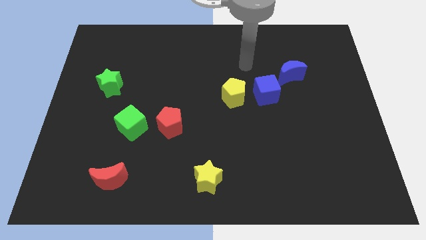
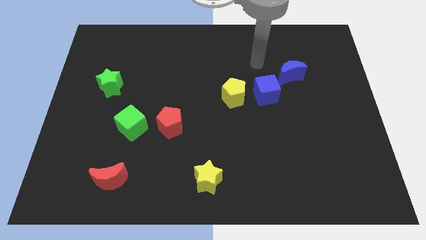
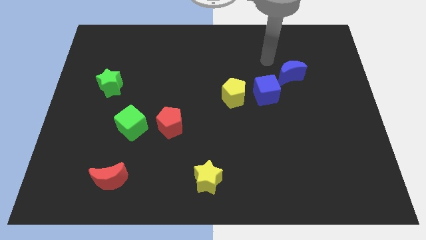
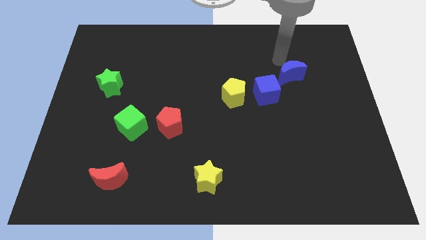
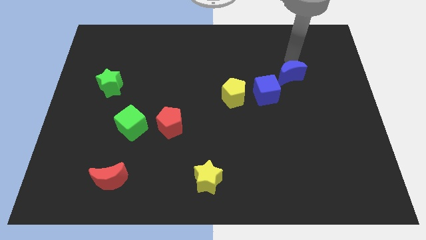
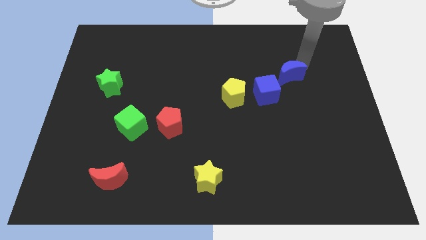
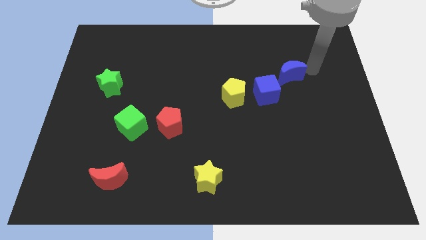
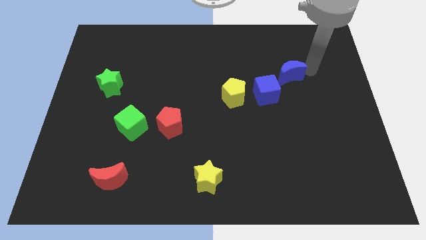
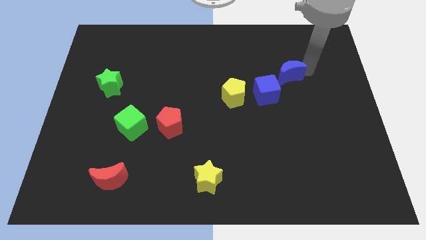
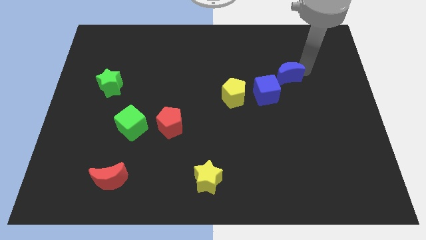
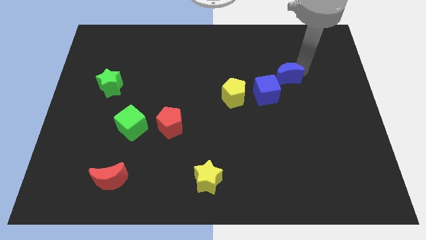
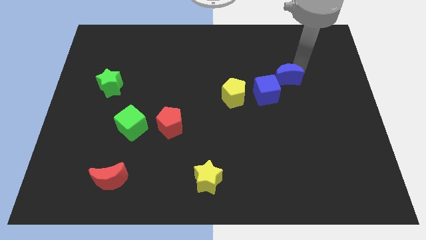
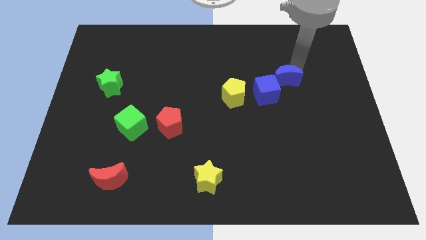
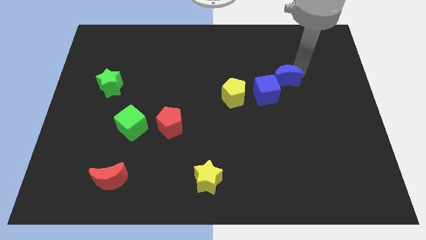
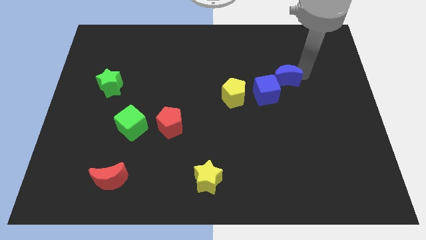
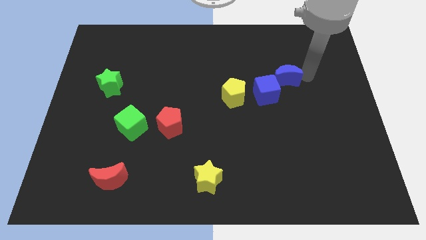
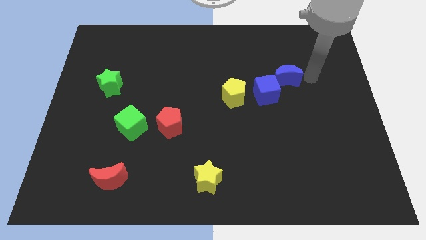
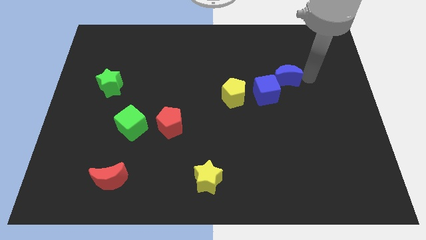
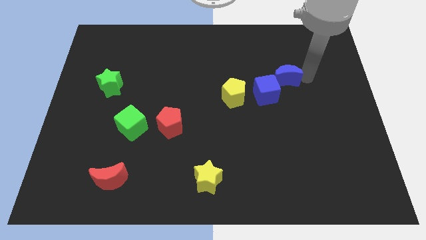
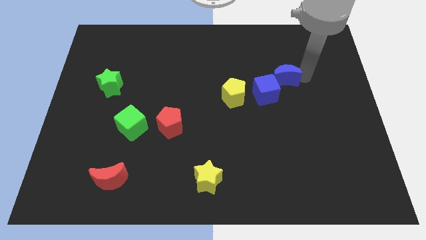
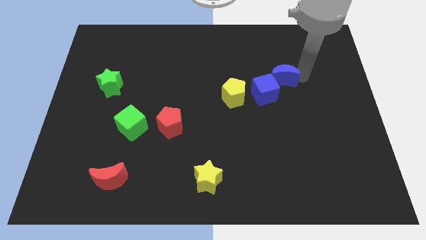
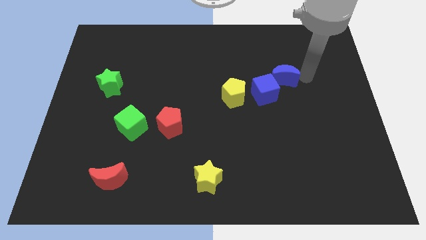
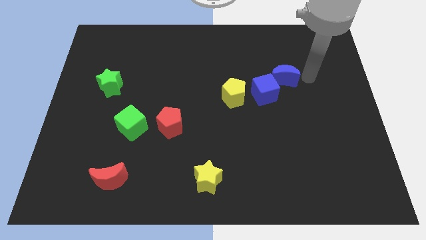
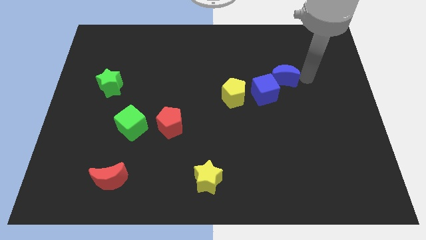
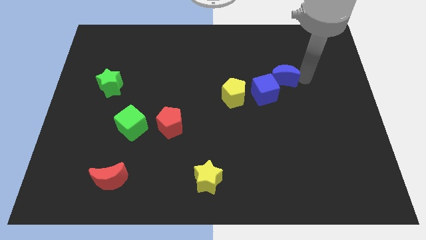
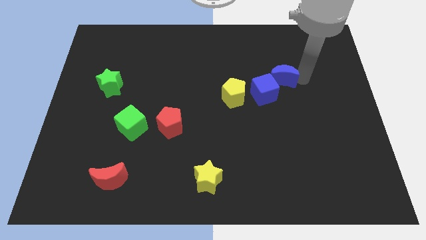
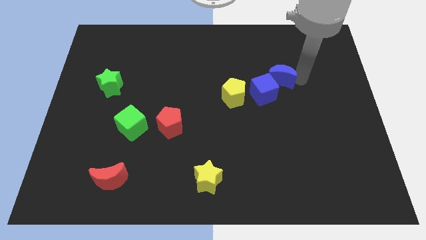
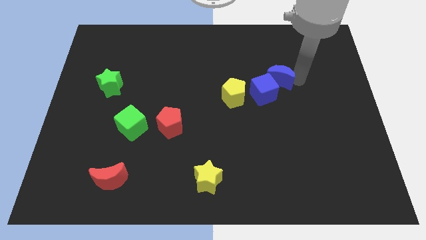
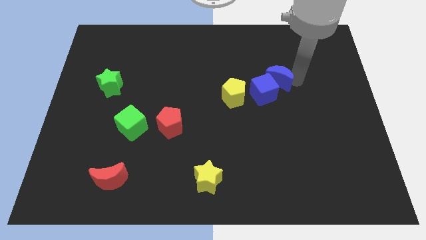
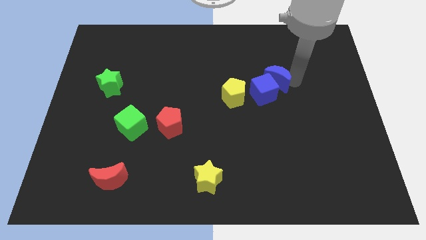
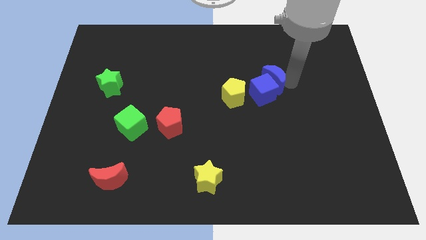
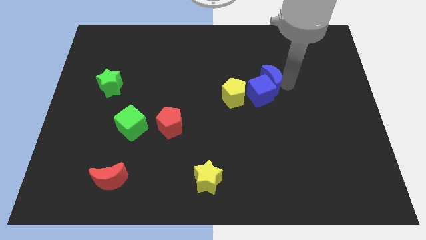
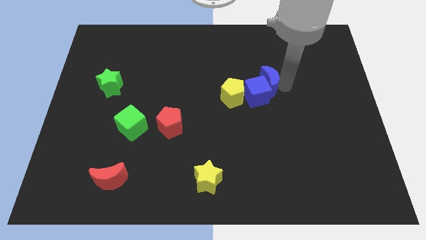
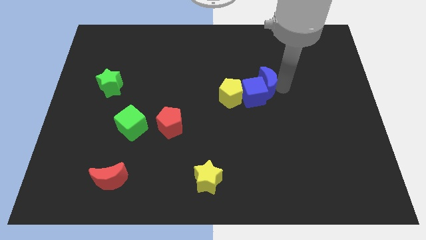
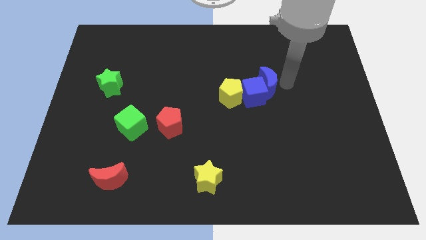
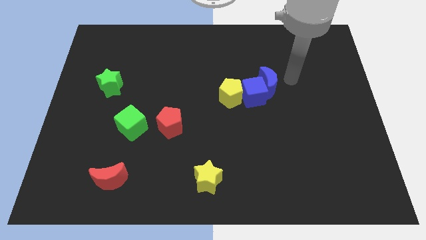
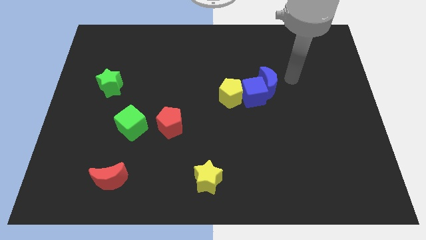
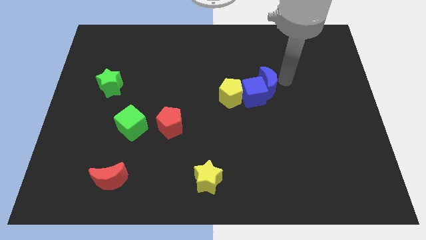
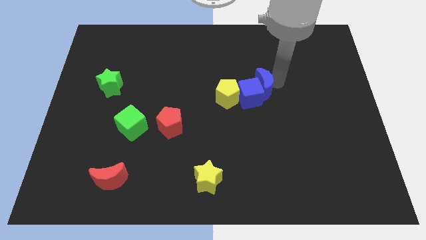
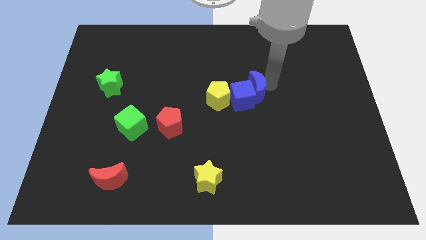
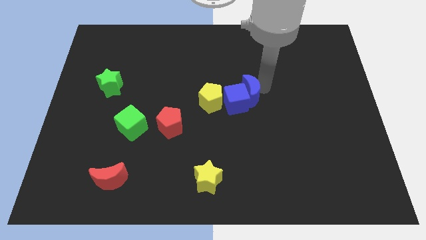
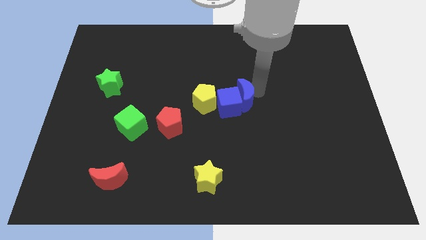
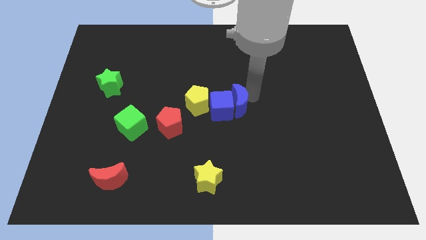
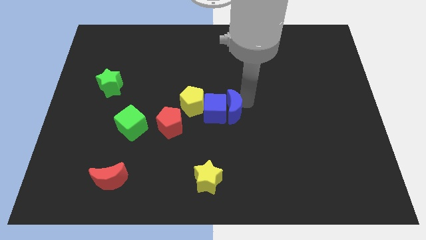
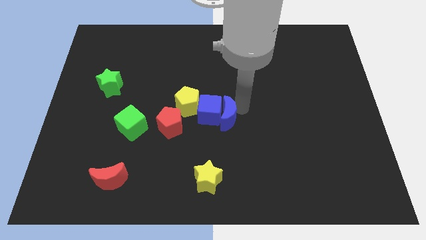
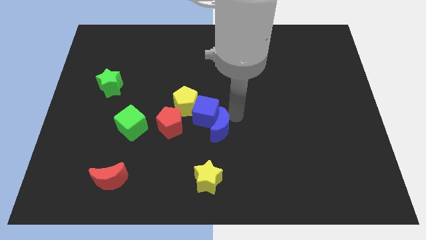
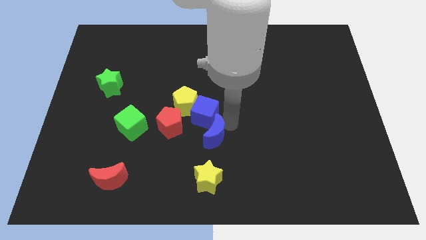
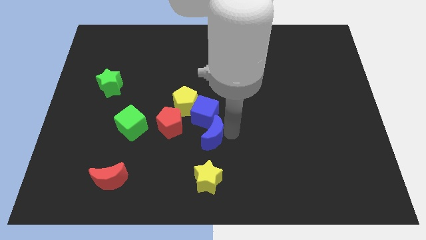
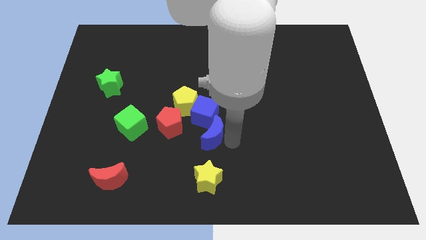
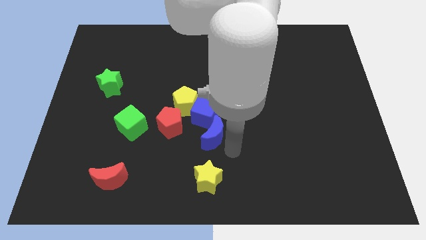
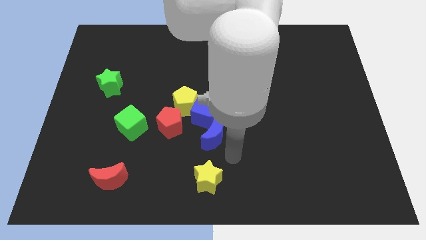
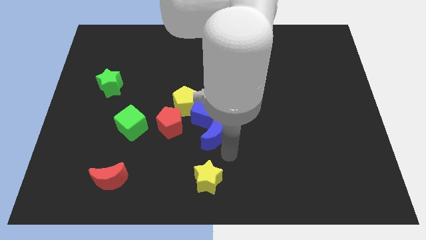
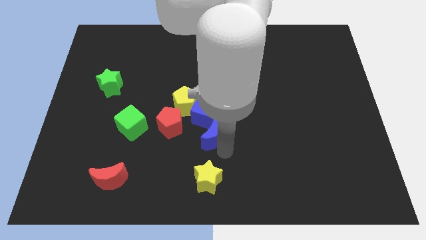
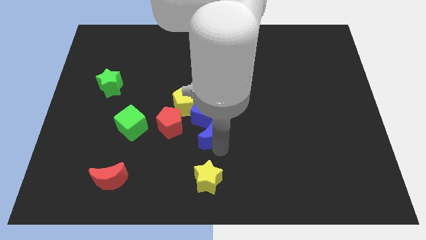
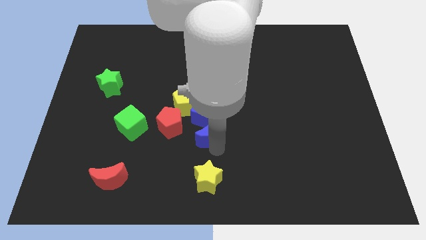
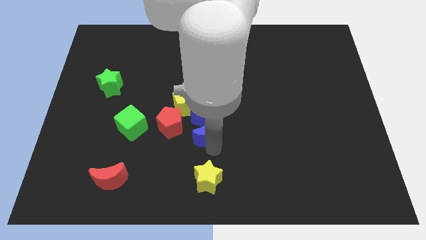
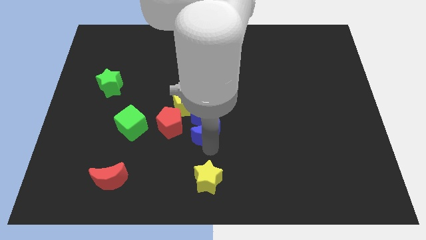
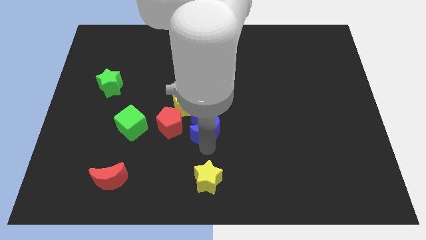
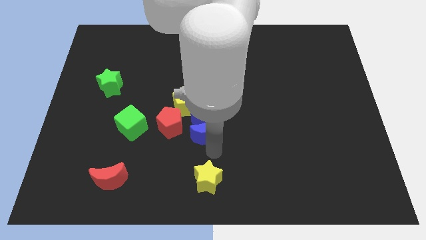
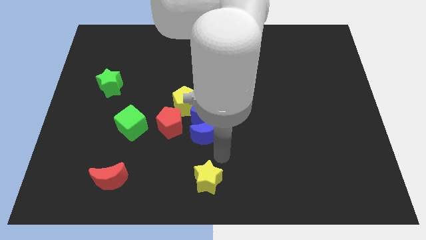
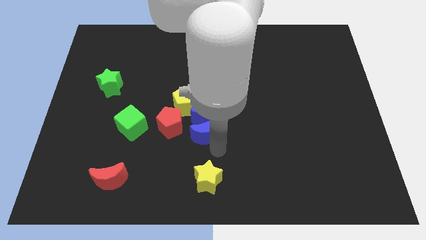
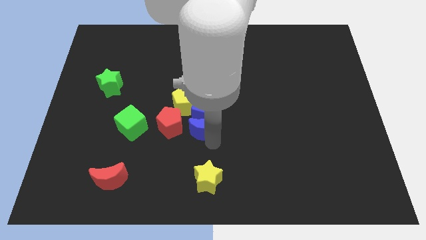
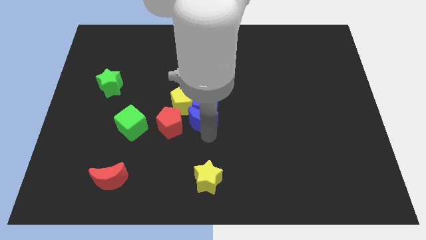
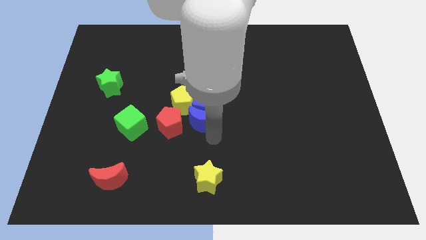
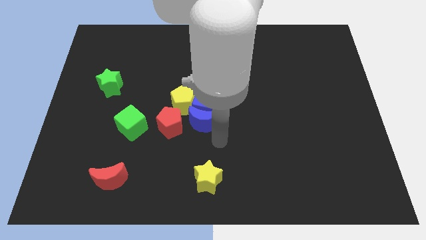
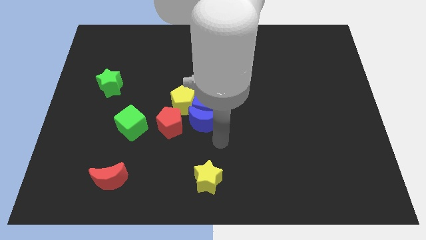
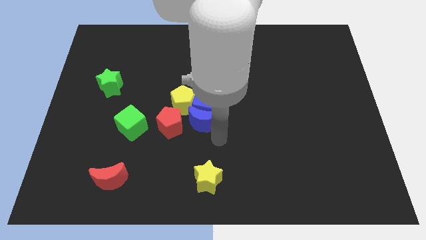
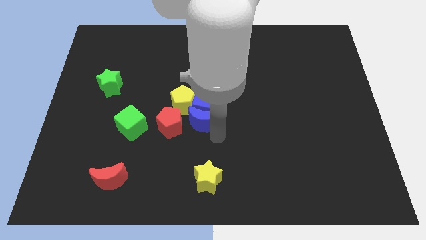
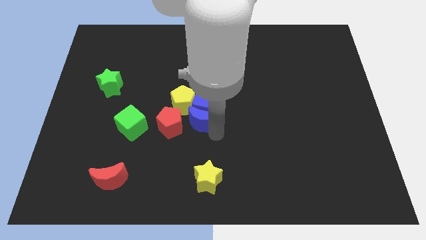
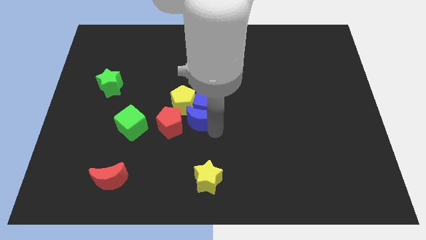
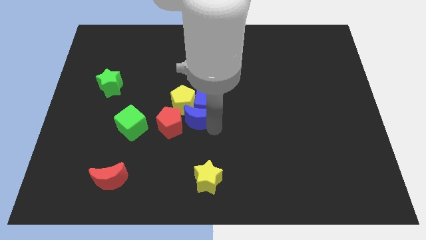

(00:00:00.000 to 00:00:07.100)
push the blue moon towards the yellow pentagon
